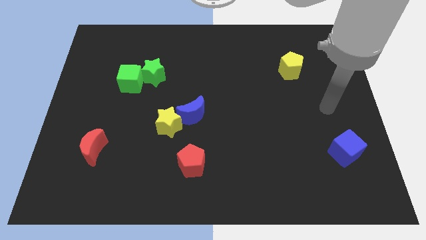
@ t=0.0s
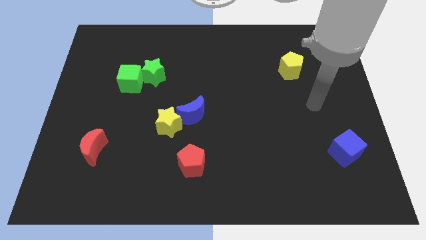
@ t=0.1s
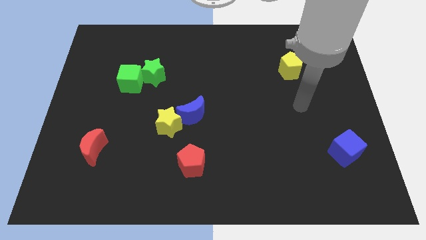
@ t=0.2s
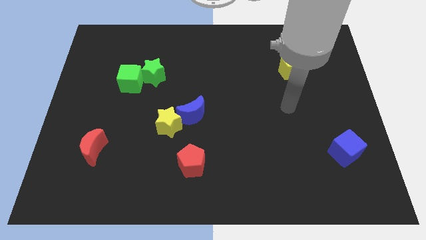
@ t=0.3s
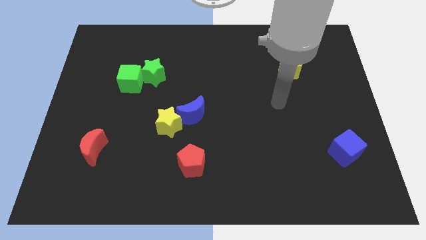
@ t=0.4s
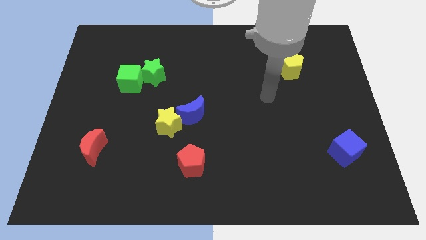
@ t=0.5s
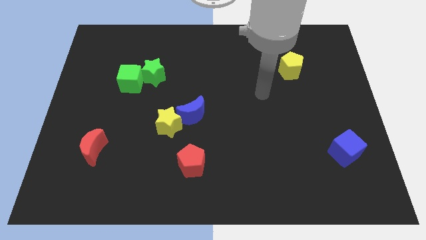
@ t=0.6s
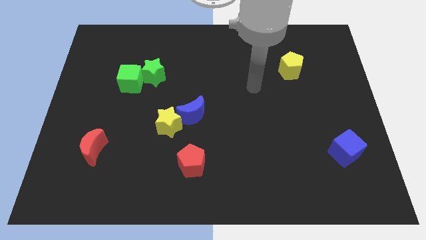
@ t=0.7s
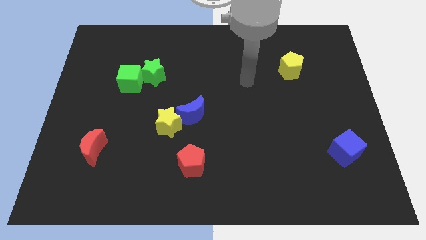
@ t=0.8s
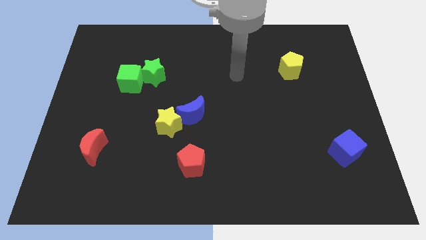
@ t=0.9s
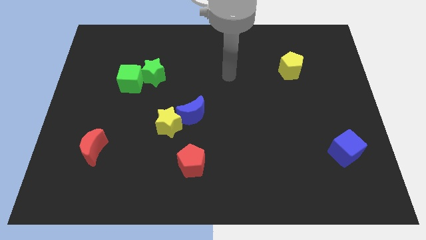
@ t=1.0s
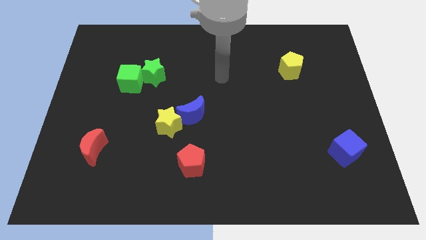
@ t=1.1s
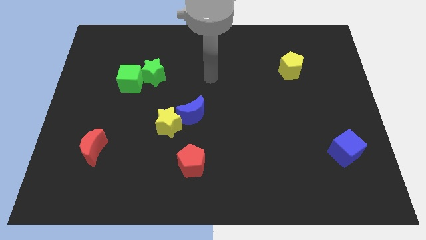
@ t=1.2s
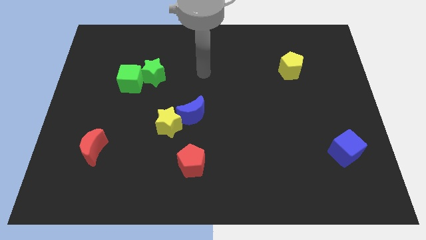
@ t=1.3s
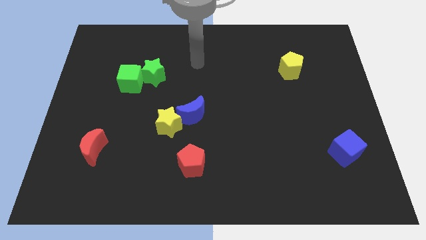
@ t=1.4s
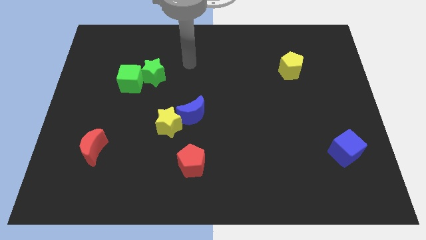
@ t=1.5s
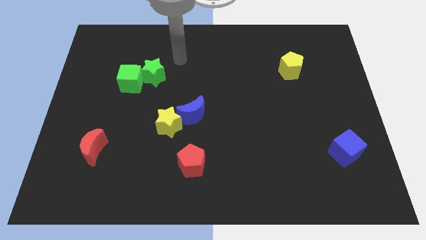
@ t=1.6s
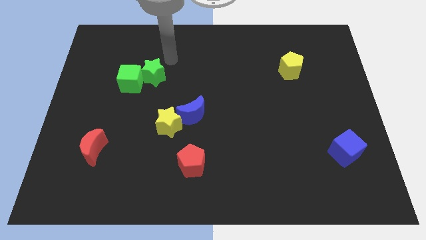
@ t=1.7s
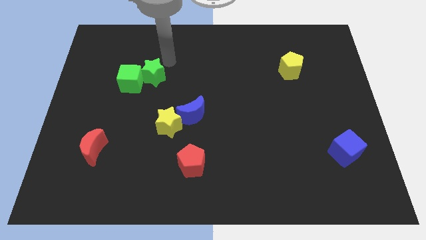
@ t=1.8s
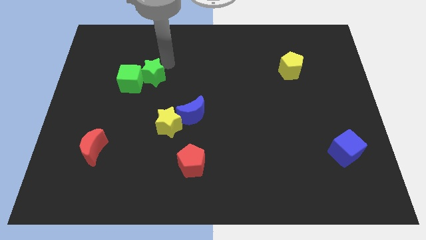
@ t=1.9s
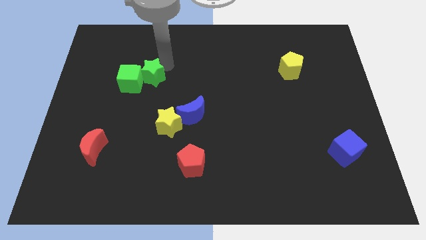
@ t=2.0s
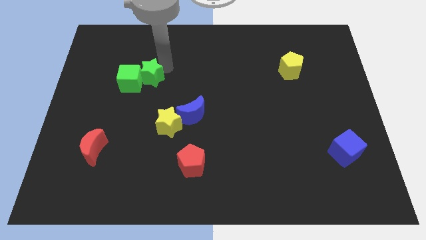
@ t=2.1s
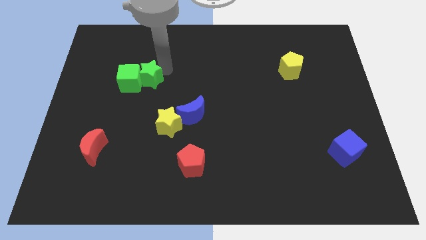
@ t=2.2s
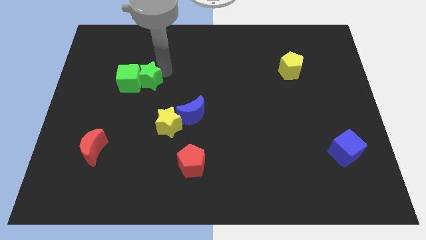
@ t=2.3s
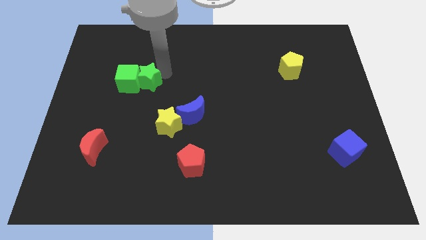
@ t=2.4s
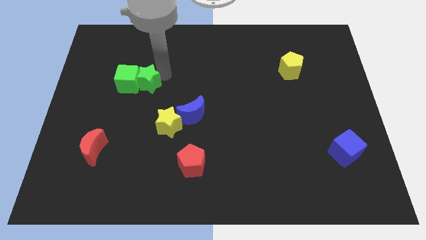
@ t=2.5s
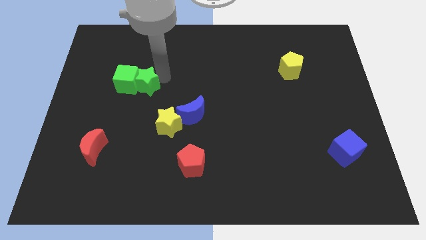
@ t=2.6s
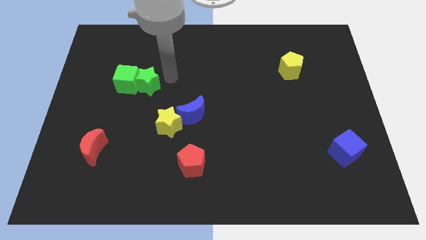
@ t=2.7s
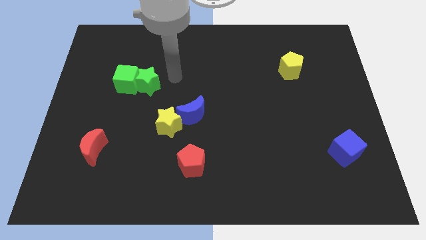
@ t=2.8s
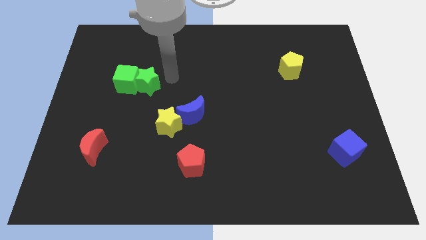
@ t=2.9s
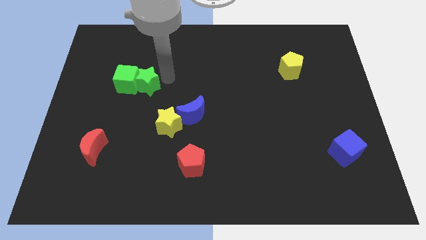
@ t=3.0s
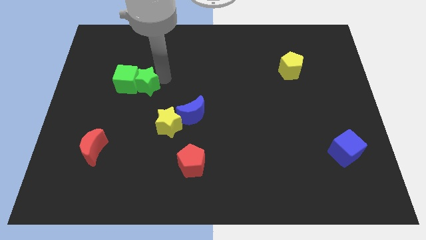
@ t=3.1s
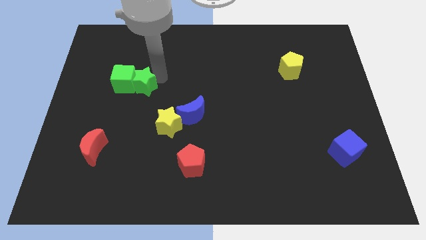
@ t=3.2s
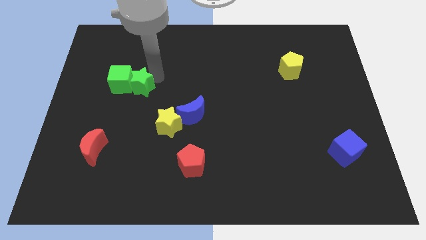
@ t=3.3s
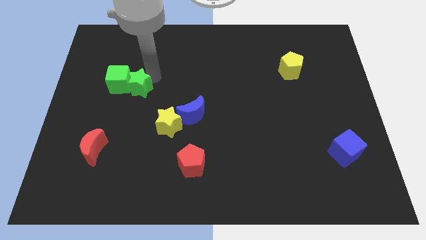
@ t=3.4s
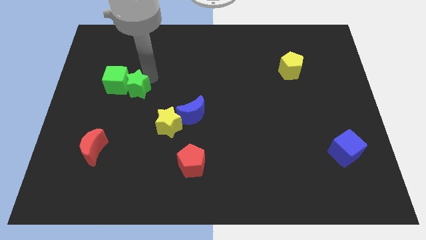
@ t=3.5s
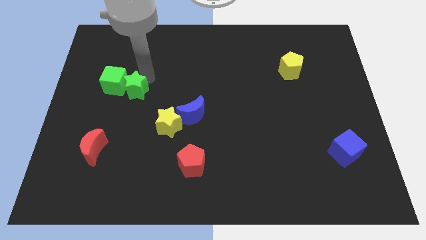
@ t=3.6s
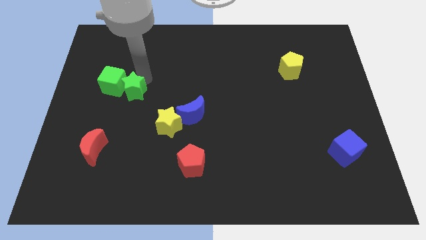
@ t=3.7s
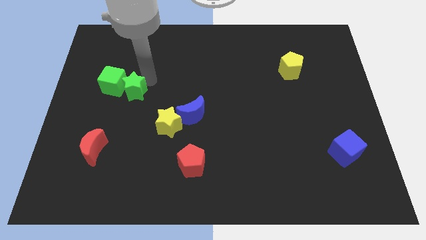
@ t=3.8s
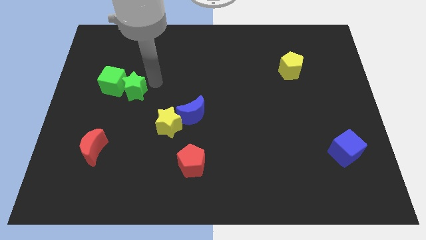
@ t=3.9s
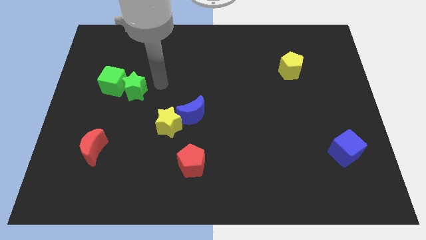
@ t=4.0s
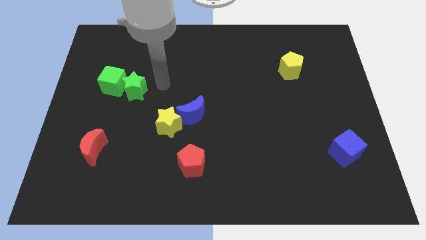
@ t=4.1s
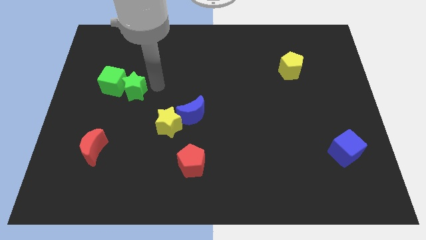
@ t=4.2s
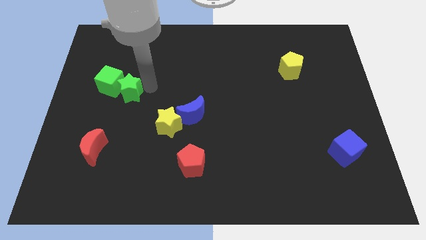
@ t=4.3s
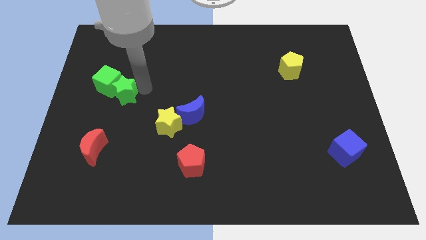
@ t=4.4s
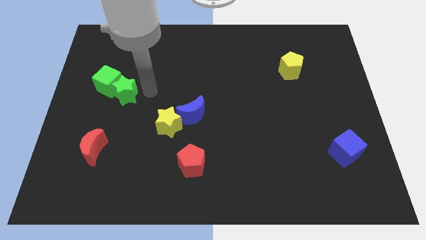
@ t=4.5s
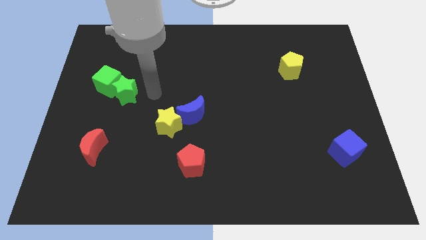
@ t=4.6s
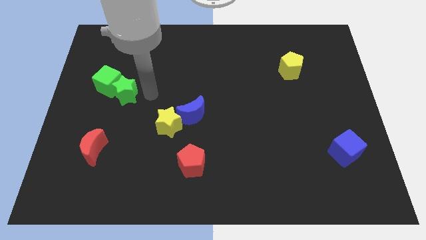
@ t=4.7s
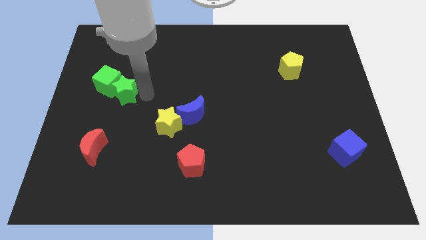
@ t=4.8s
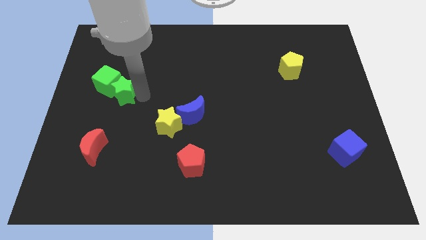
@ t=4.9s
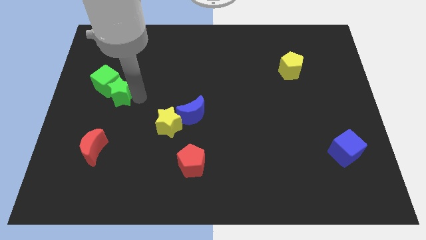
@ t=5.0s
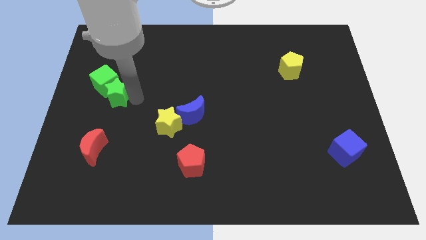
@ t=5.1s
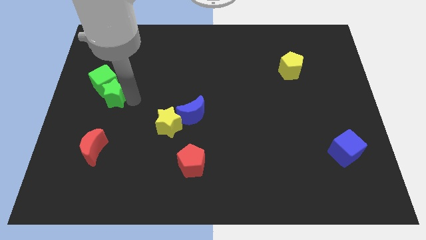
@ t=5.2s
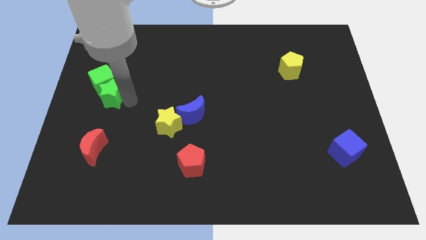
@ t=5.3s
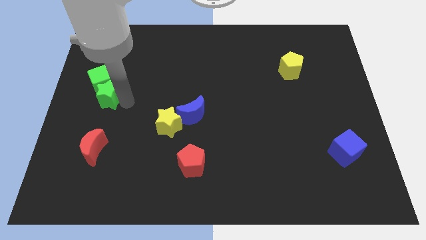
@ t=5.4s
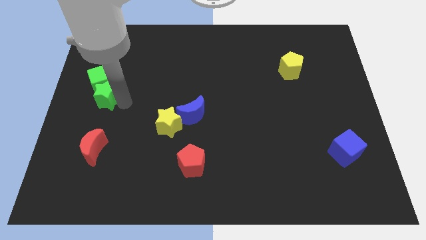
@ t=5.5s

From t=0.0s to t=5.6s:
put the green star to the left side

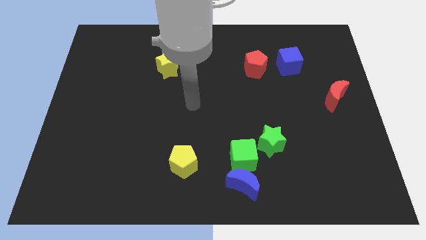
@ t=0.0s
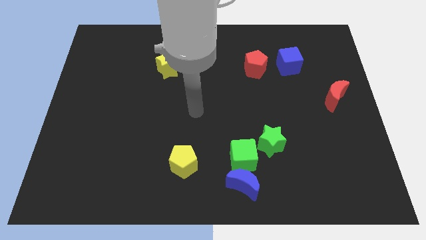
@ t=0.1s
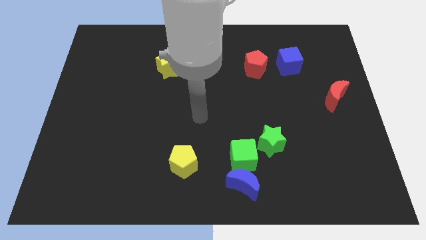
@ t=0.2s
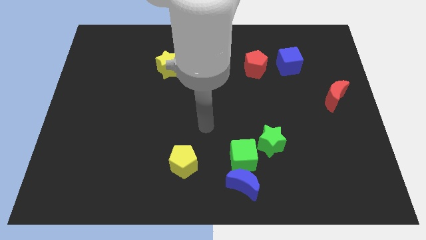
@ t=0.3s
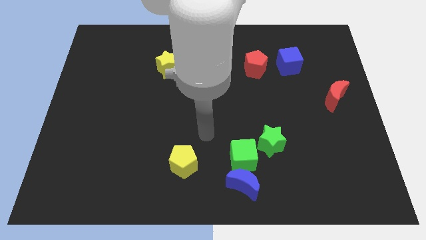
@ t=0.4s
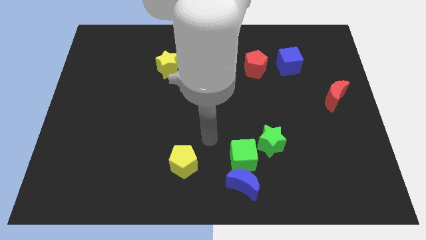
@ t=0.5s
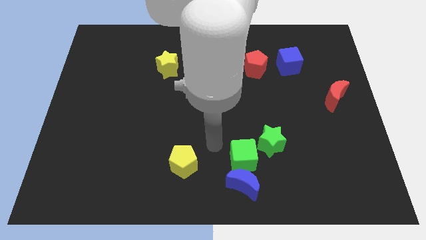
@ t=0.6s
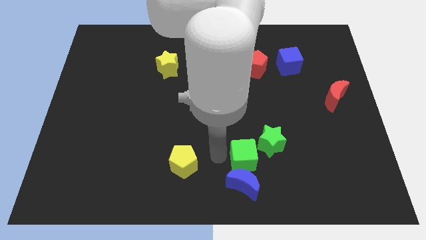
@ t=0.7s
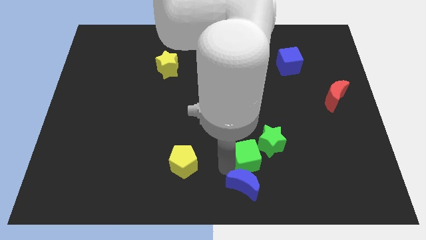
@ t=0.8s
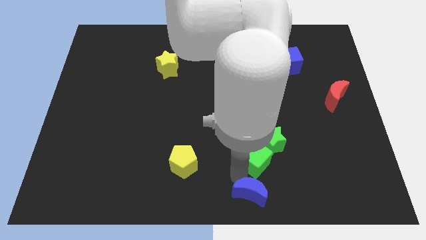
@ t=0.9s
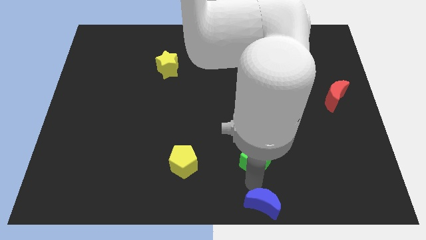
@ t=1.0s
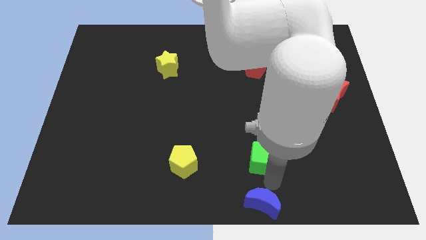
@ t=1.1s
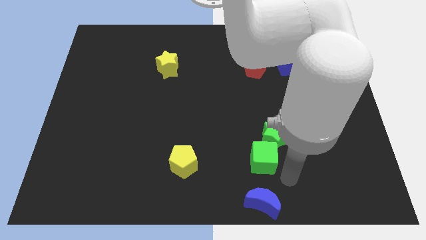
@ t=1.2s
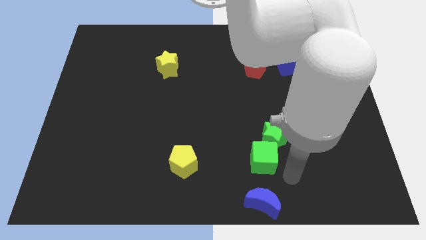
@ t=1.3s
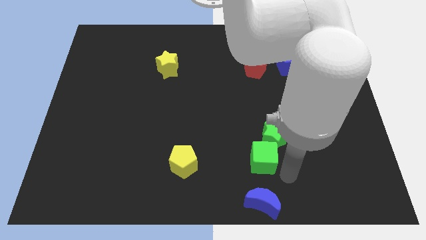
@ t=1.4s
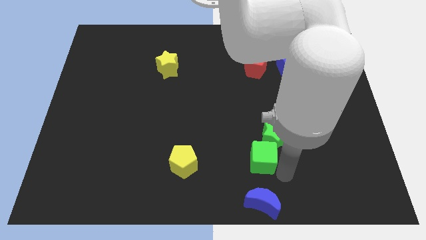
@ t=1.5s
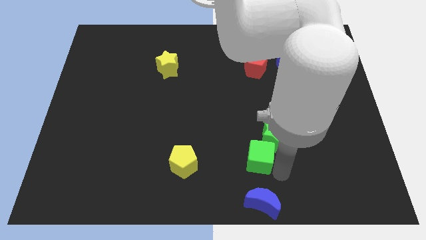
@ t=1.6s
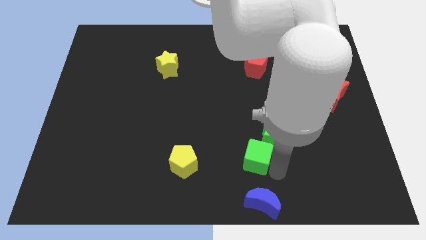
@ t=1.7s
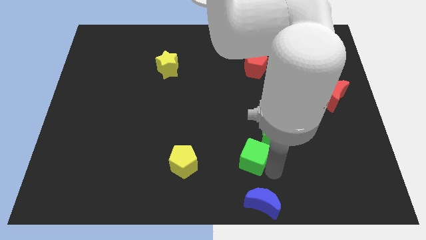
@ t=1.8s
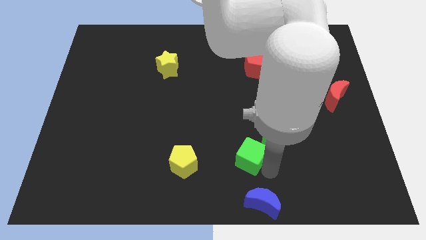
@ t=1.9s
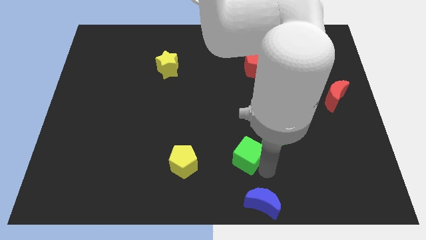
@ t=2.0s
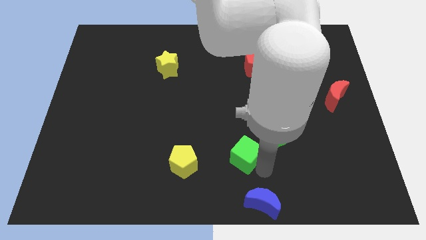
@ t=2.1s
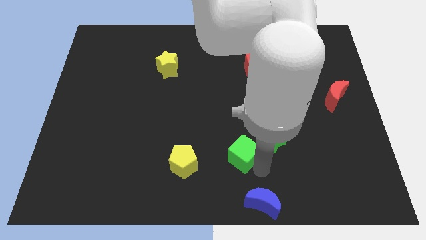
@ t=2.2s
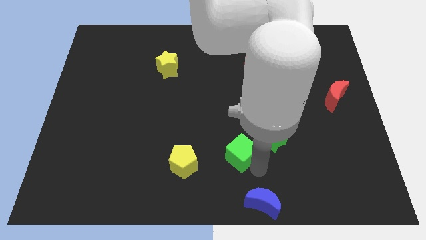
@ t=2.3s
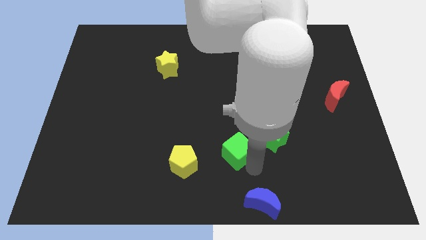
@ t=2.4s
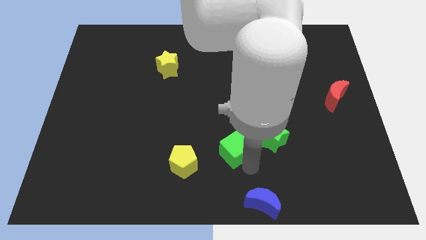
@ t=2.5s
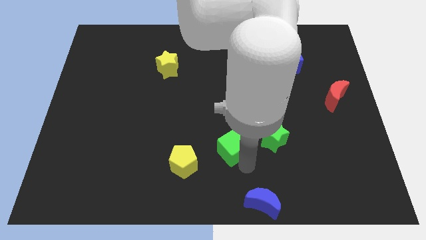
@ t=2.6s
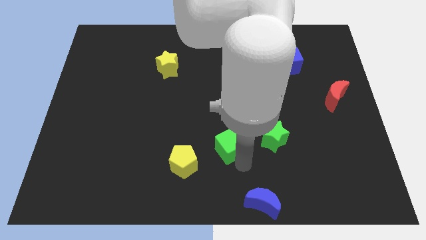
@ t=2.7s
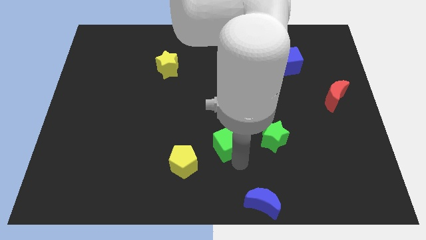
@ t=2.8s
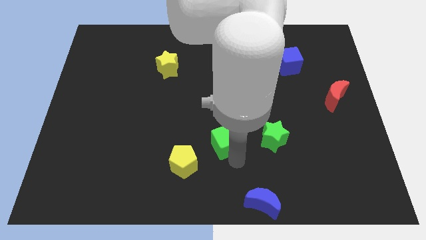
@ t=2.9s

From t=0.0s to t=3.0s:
push the green cube to the center of the board
